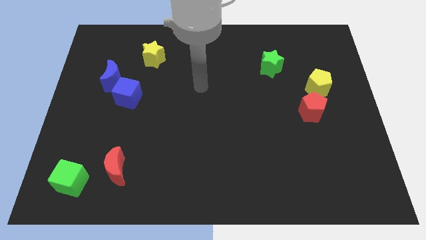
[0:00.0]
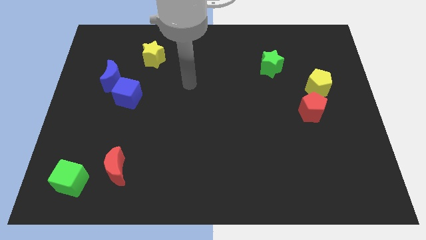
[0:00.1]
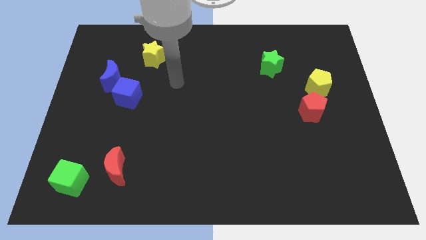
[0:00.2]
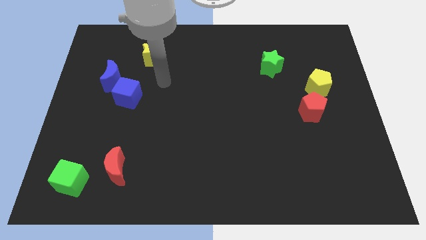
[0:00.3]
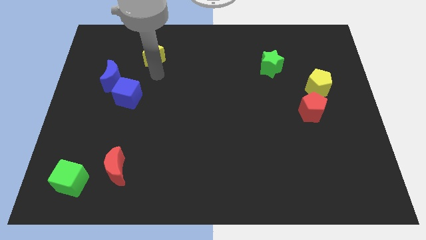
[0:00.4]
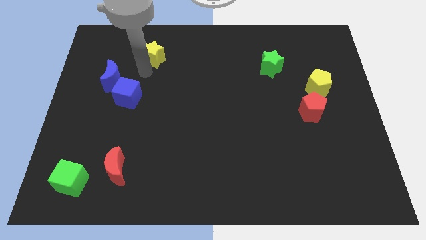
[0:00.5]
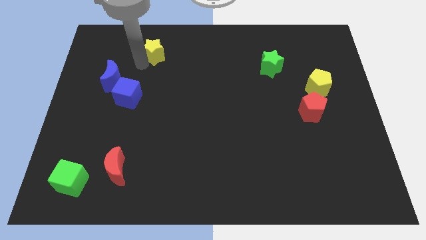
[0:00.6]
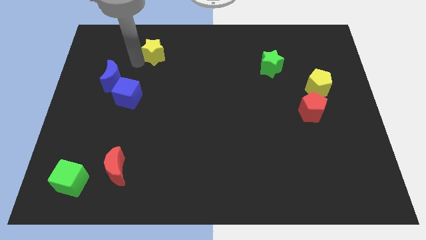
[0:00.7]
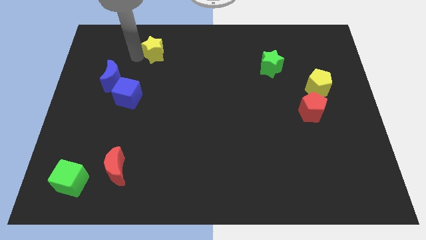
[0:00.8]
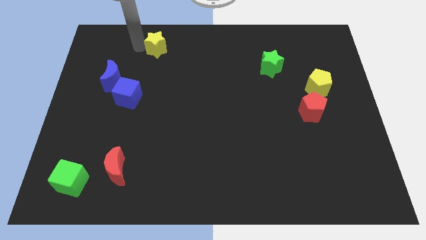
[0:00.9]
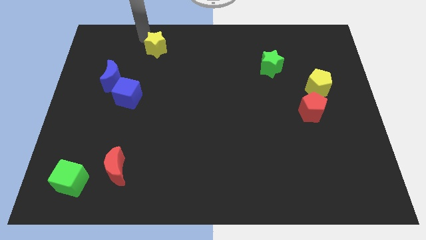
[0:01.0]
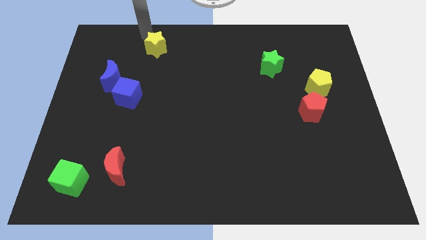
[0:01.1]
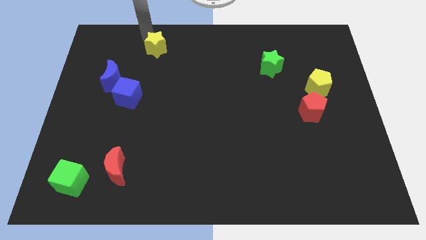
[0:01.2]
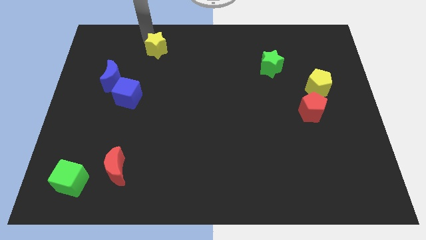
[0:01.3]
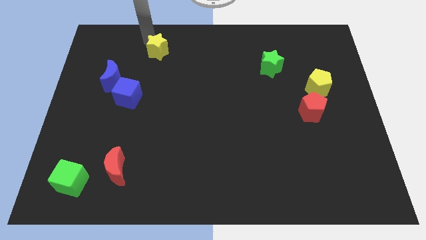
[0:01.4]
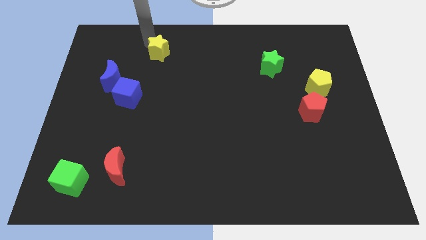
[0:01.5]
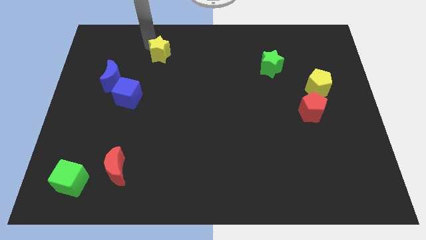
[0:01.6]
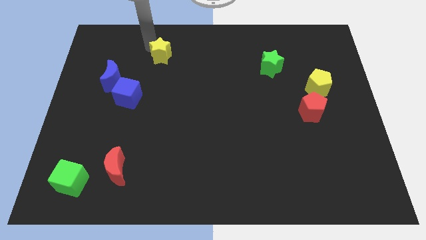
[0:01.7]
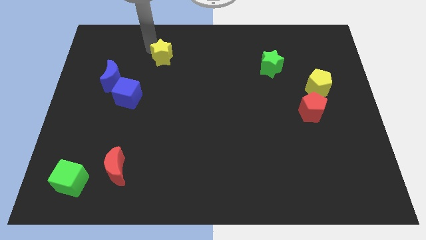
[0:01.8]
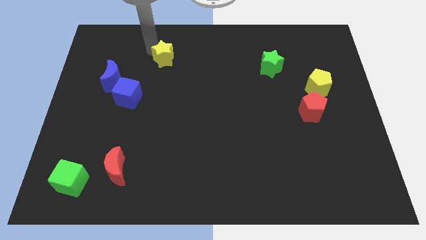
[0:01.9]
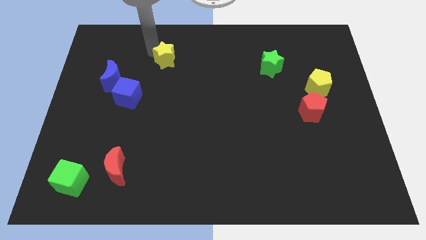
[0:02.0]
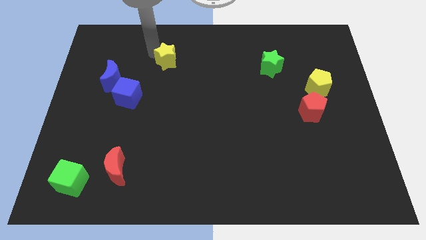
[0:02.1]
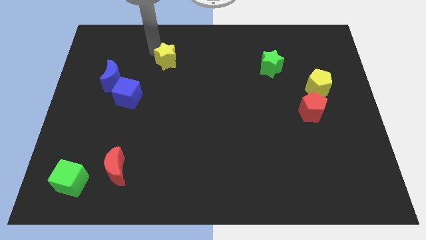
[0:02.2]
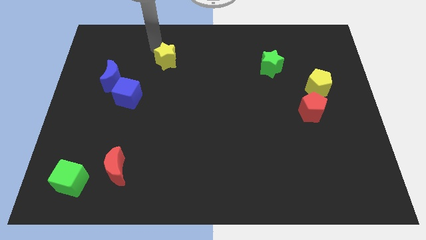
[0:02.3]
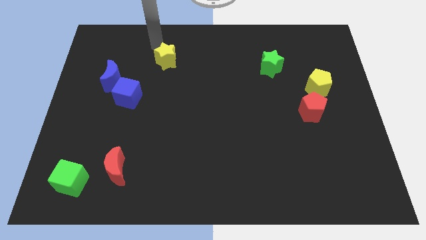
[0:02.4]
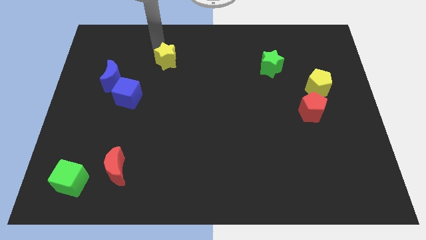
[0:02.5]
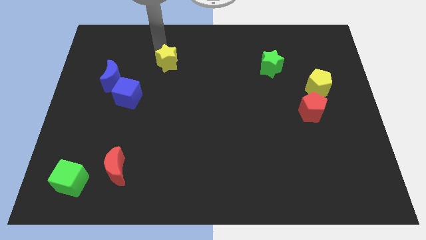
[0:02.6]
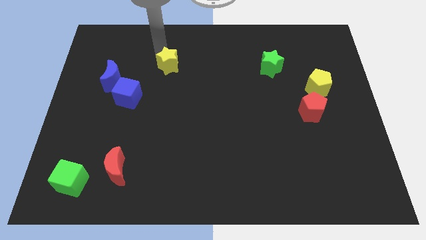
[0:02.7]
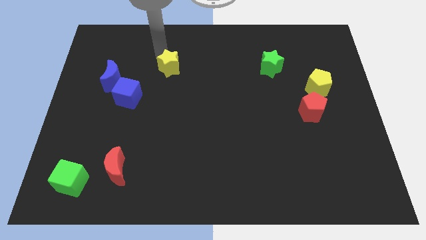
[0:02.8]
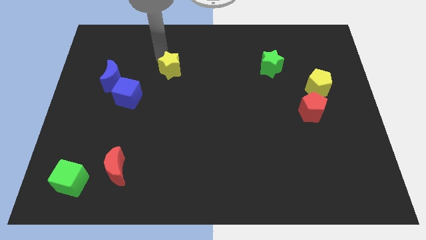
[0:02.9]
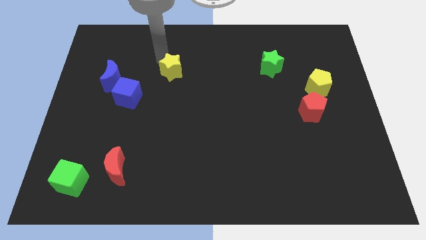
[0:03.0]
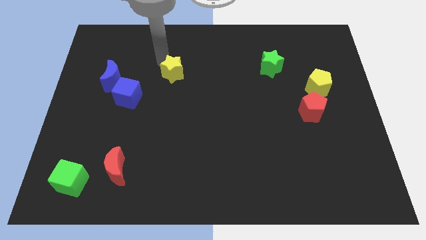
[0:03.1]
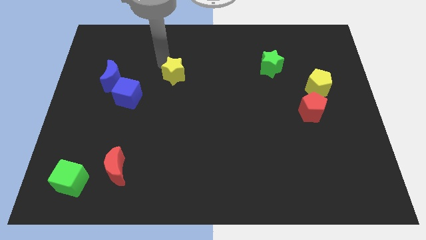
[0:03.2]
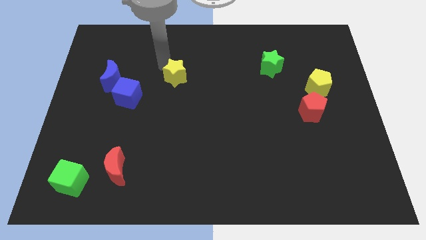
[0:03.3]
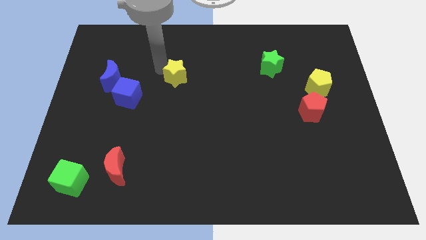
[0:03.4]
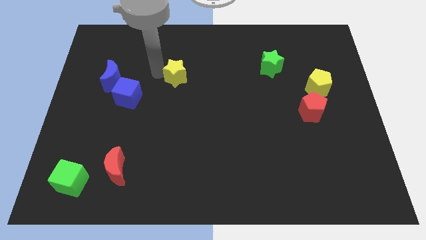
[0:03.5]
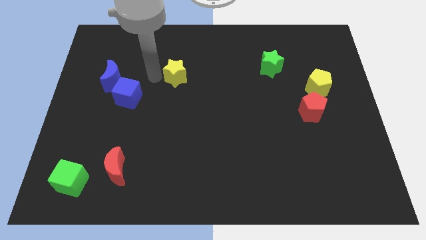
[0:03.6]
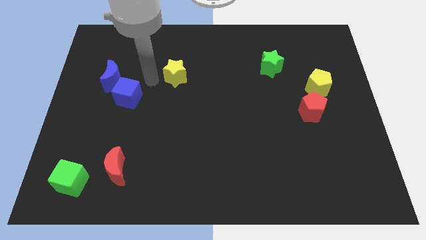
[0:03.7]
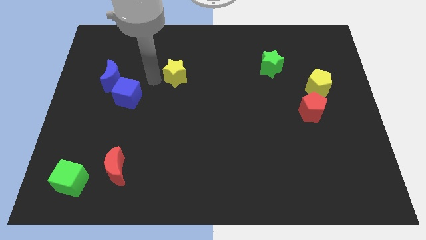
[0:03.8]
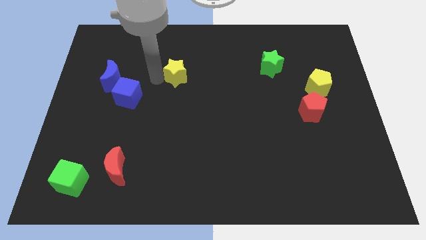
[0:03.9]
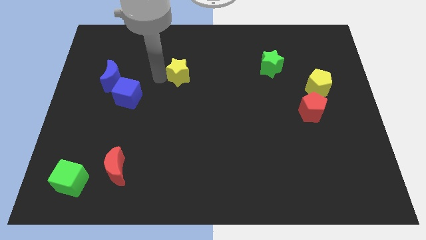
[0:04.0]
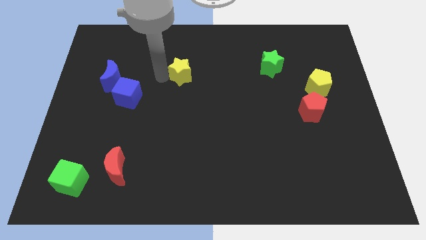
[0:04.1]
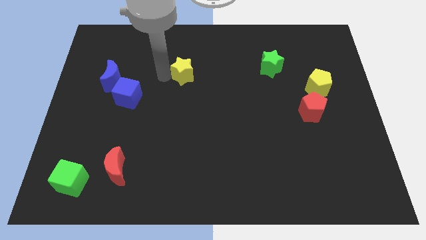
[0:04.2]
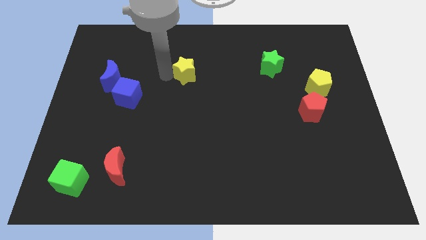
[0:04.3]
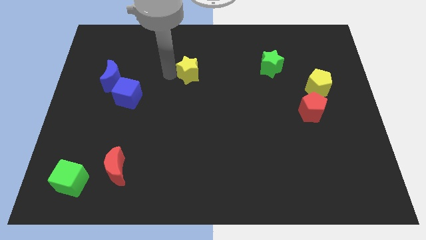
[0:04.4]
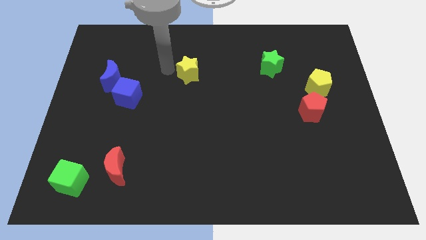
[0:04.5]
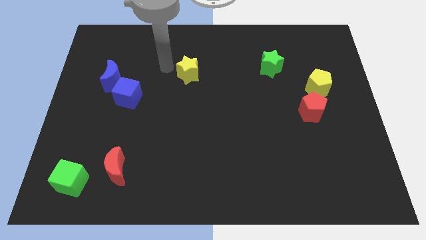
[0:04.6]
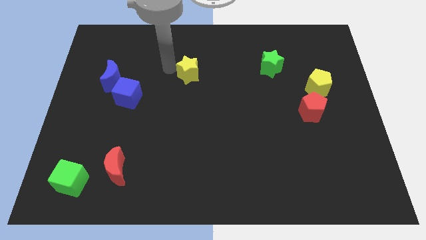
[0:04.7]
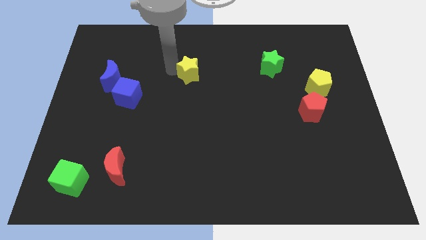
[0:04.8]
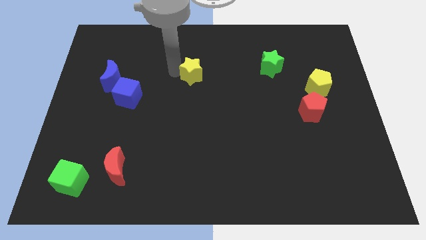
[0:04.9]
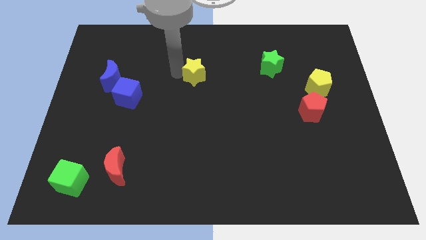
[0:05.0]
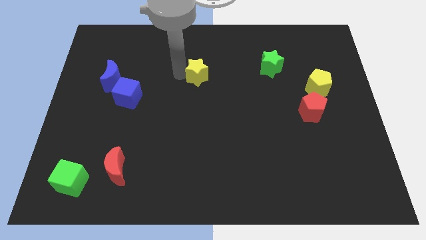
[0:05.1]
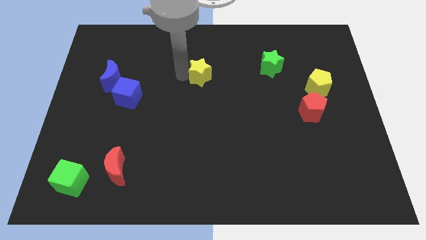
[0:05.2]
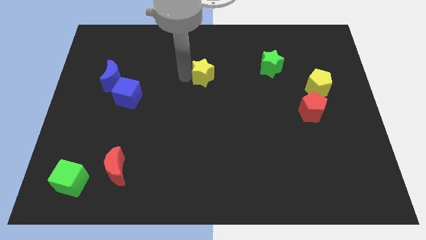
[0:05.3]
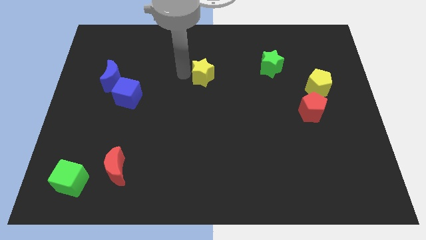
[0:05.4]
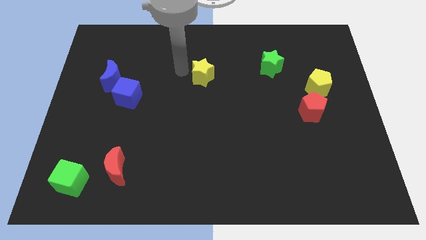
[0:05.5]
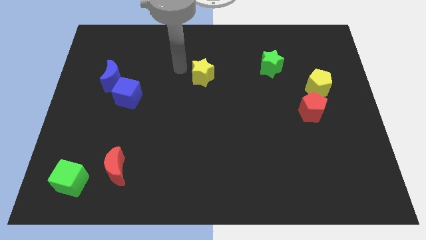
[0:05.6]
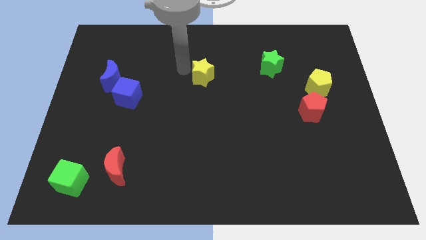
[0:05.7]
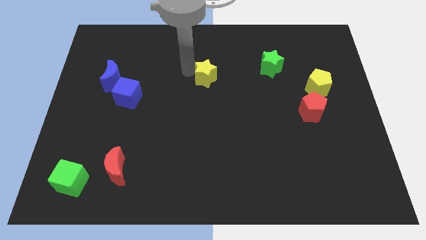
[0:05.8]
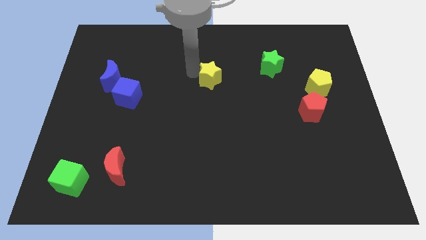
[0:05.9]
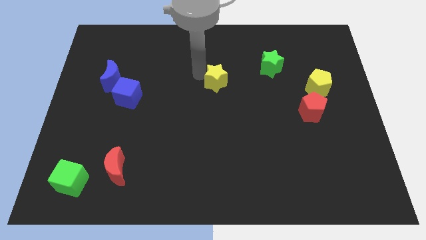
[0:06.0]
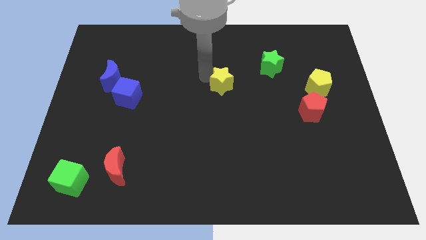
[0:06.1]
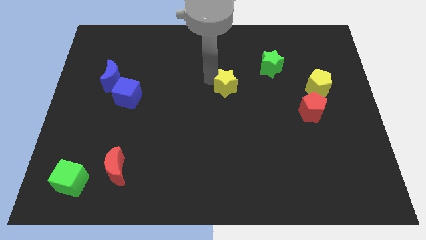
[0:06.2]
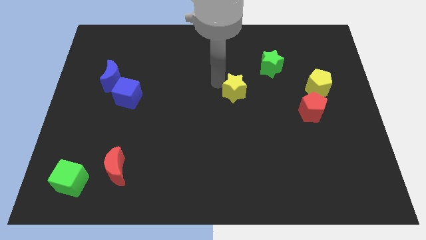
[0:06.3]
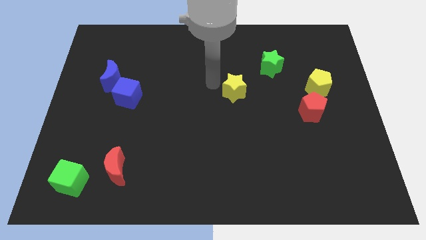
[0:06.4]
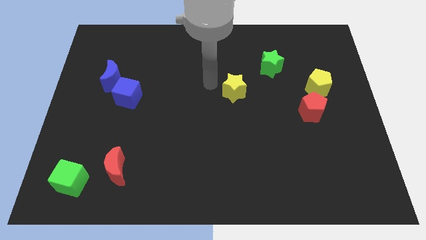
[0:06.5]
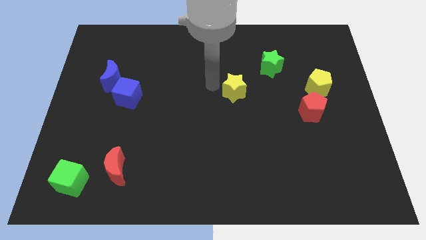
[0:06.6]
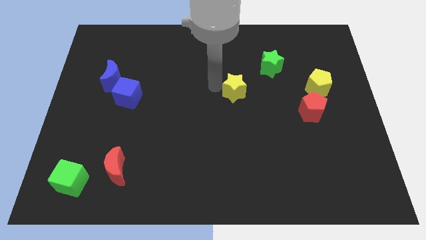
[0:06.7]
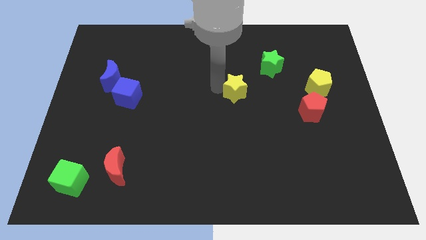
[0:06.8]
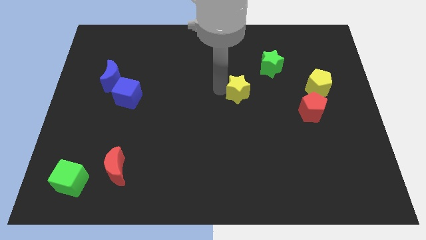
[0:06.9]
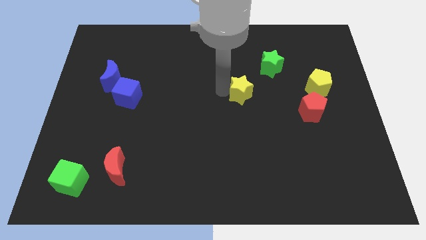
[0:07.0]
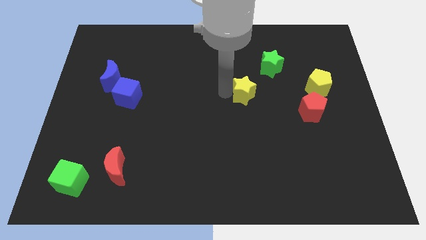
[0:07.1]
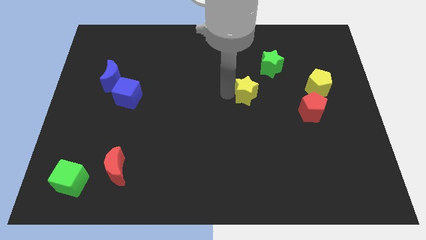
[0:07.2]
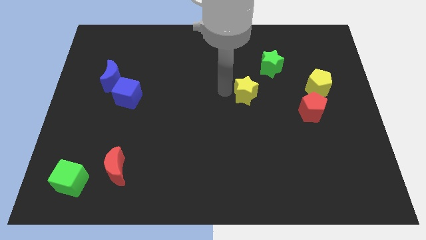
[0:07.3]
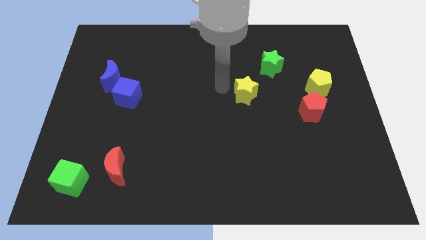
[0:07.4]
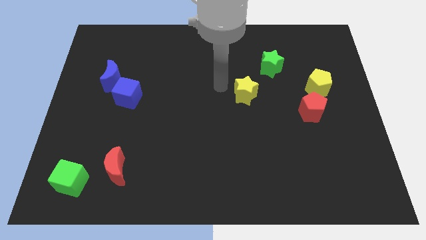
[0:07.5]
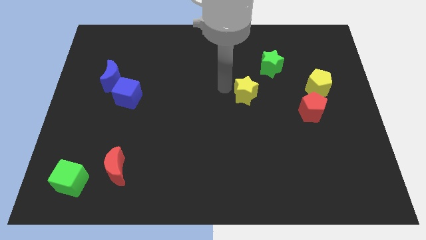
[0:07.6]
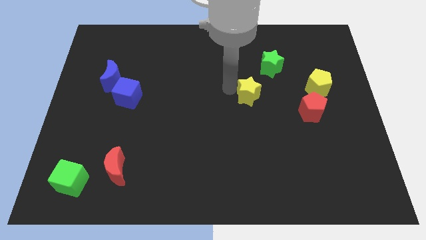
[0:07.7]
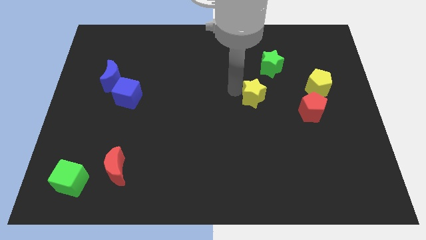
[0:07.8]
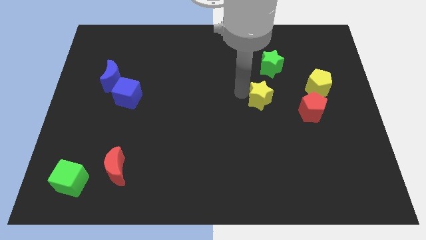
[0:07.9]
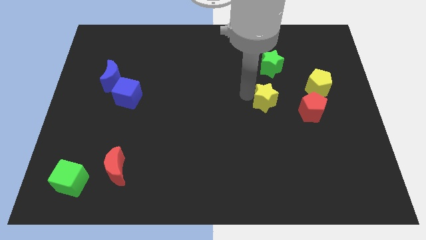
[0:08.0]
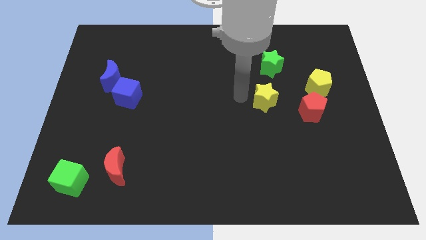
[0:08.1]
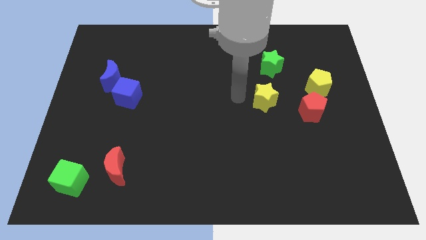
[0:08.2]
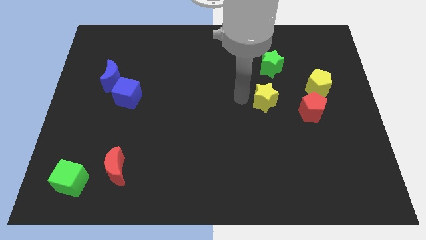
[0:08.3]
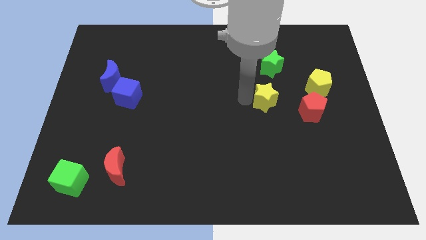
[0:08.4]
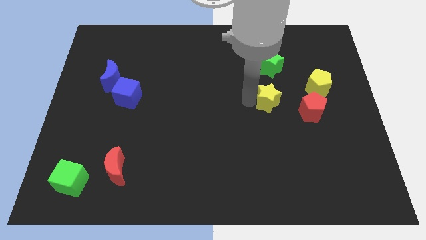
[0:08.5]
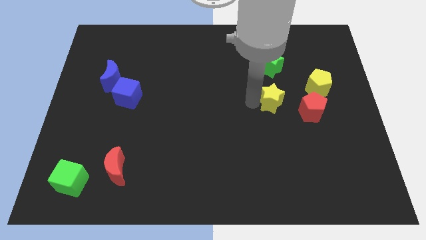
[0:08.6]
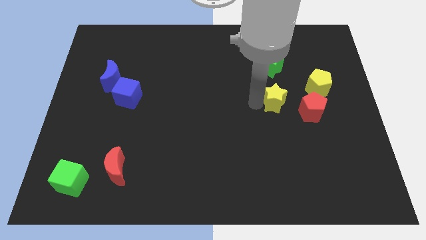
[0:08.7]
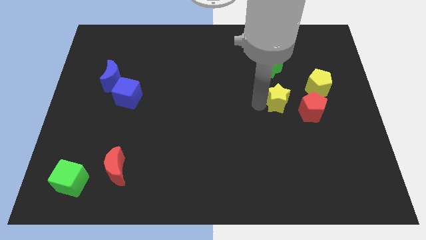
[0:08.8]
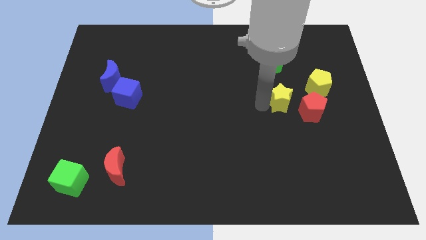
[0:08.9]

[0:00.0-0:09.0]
slide the yellow star diagonally down and to the left of the yellow pentagon
